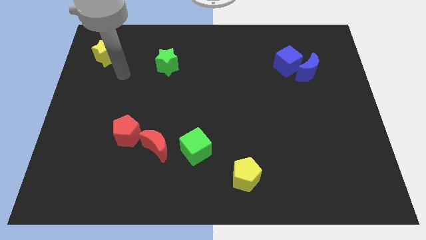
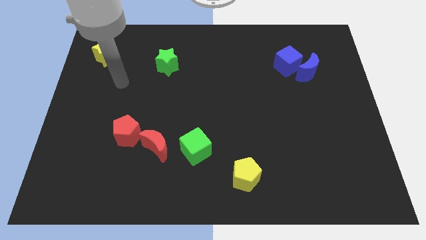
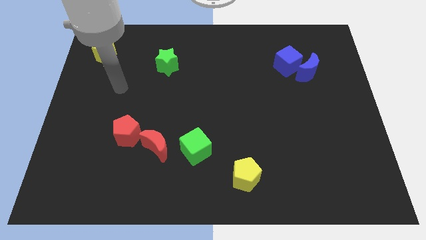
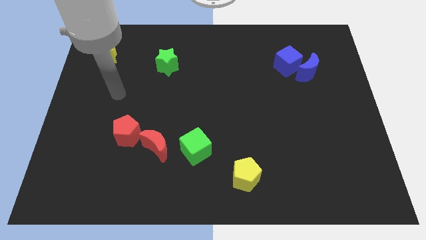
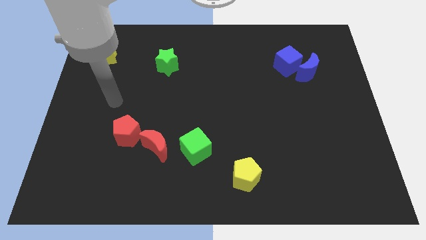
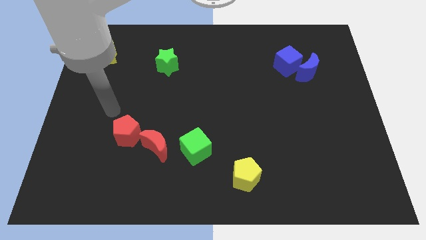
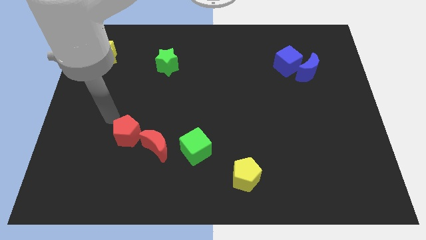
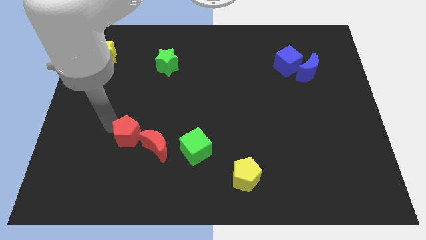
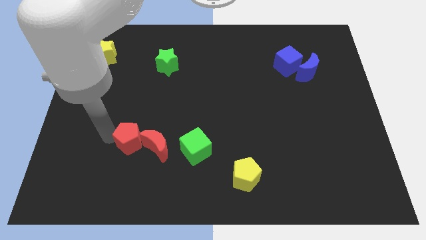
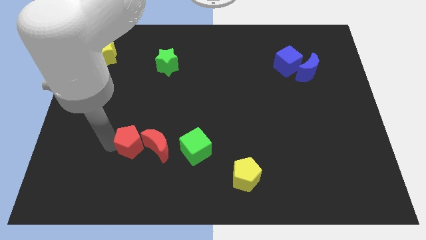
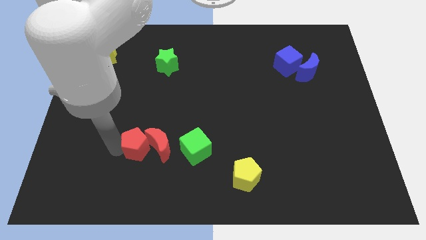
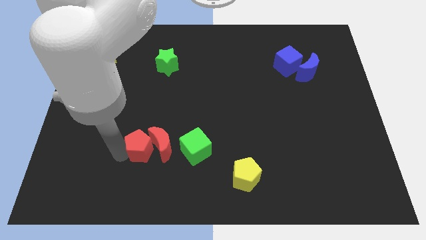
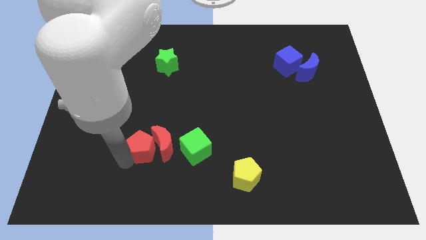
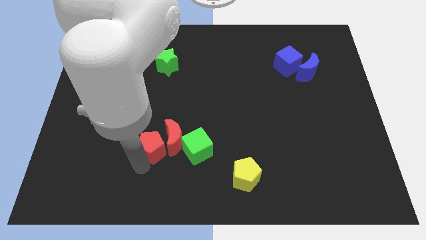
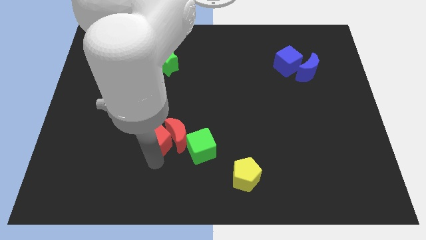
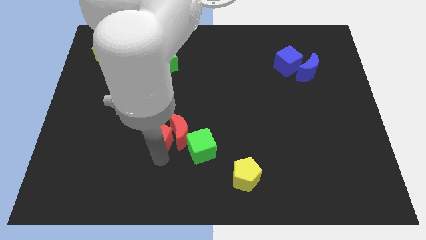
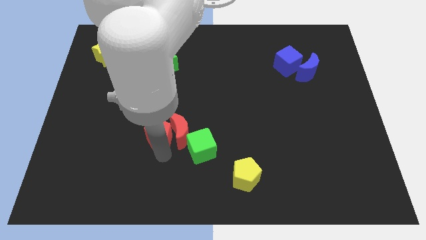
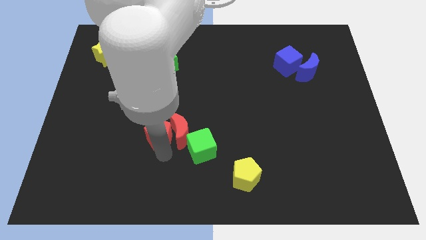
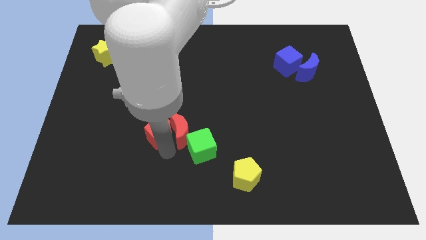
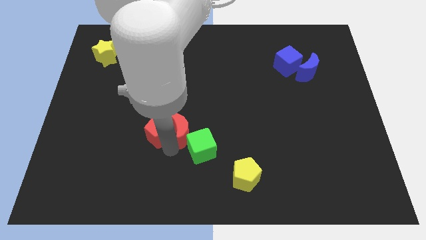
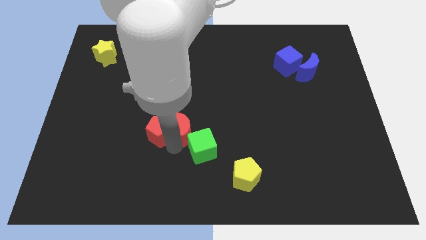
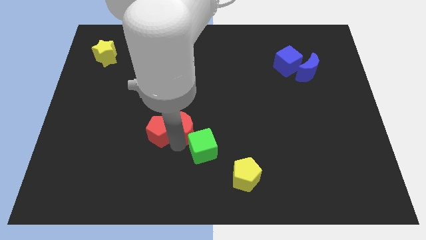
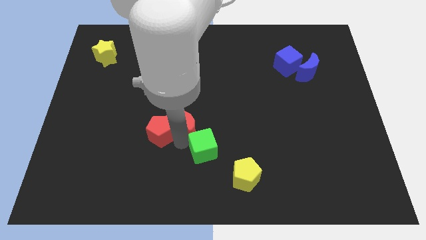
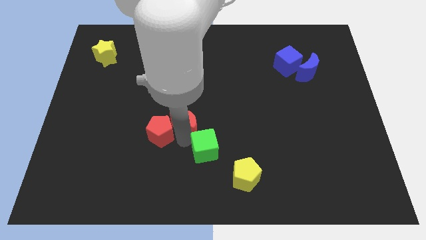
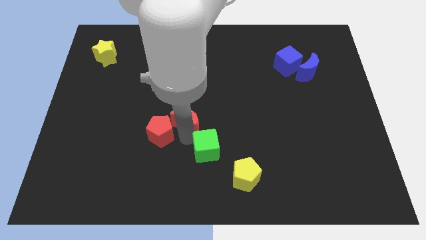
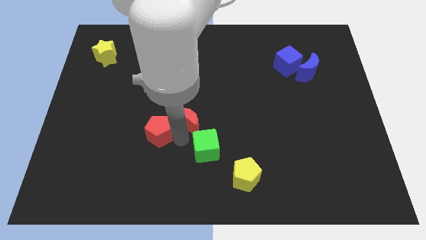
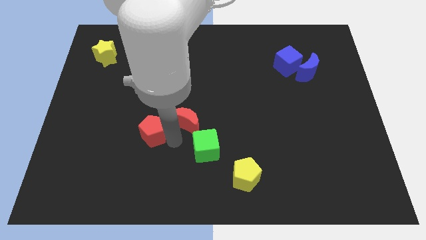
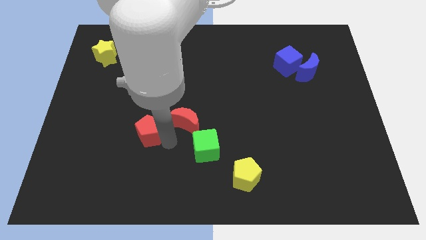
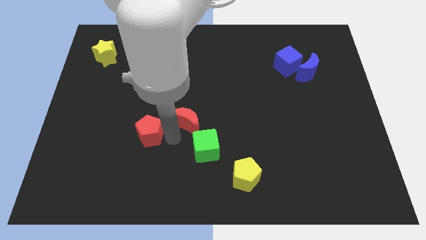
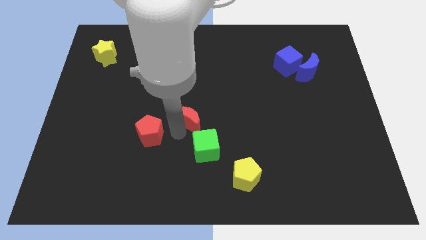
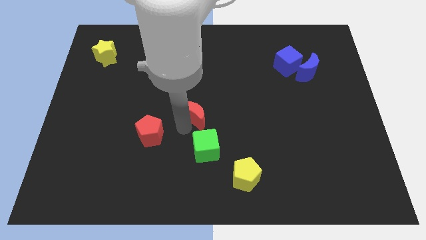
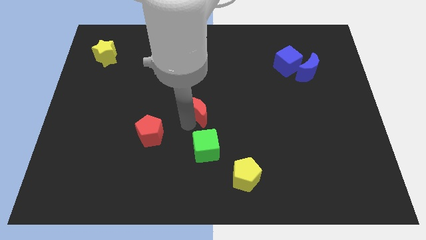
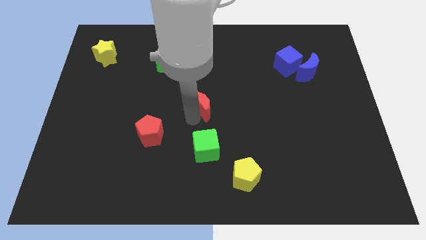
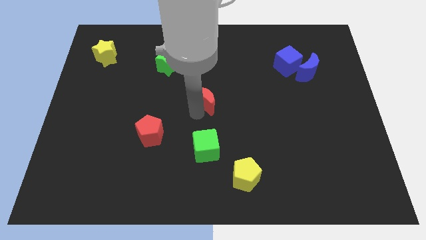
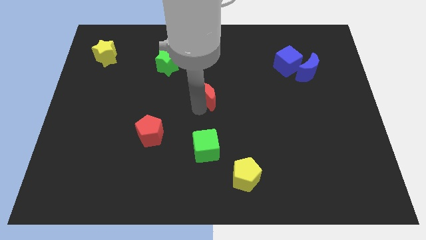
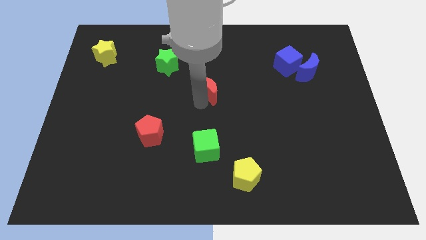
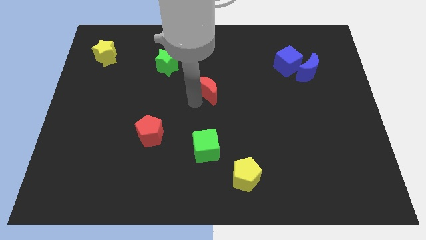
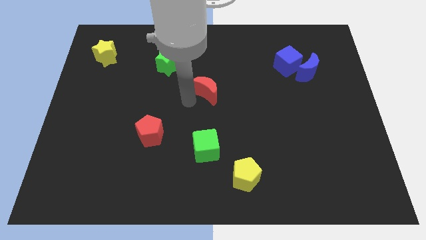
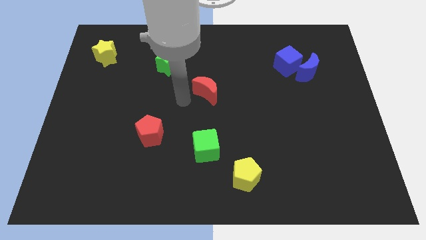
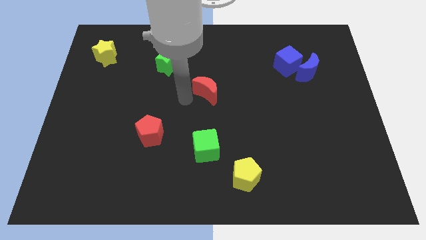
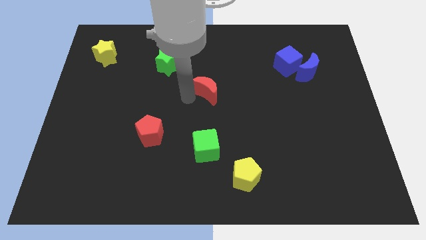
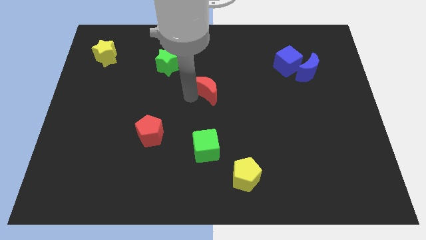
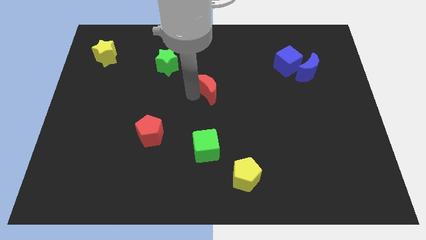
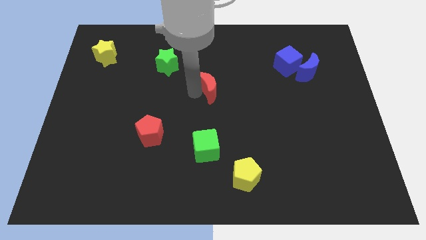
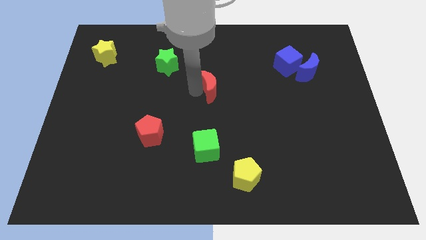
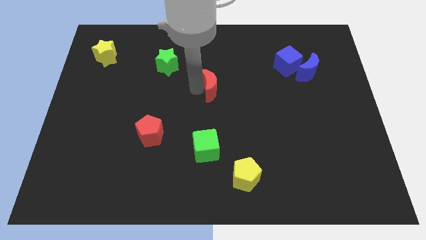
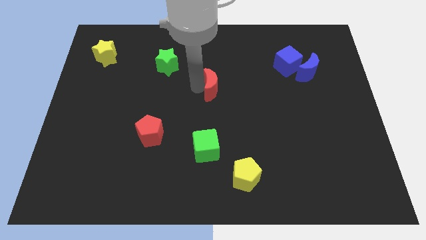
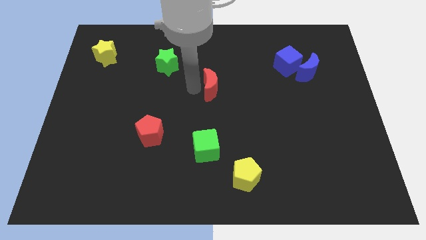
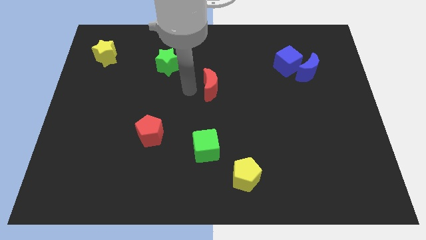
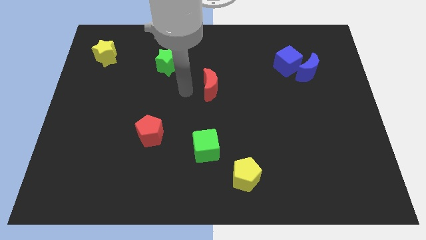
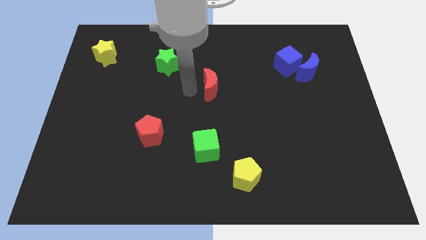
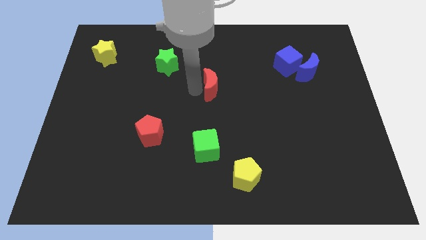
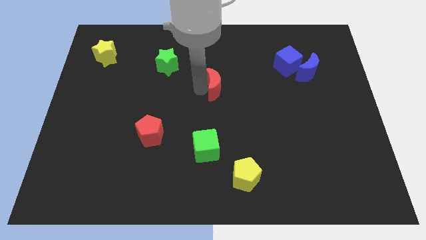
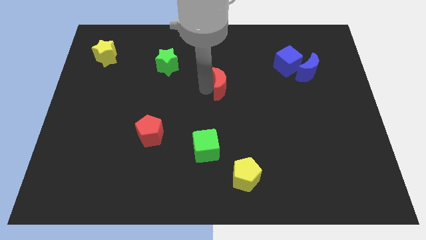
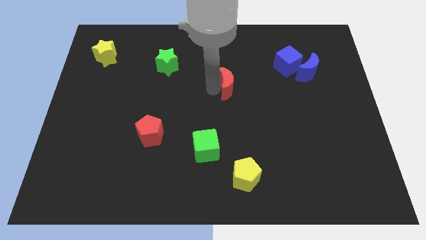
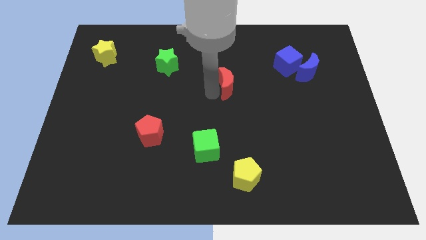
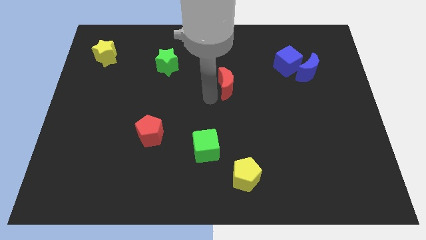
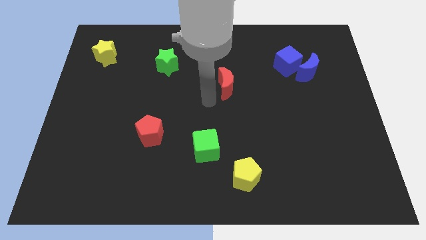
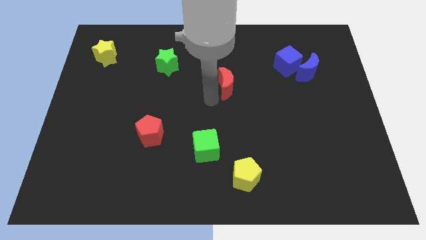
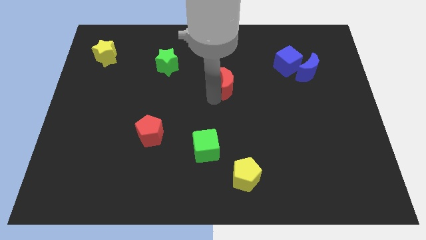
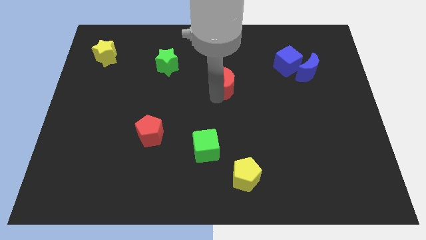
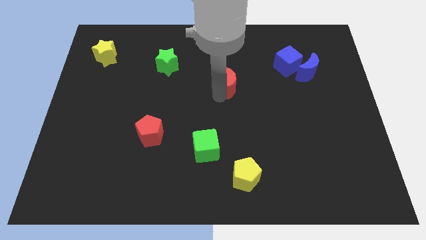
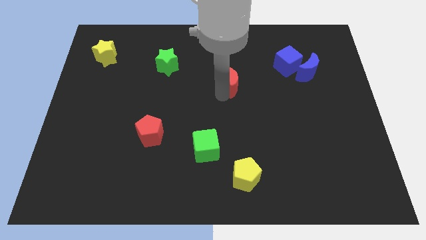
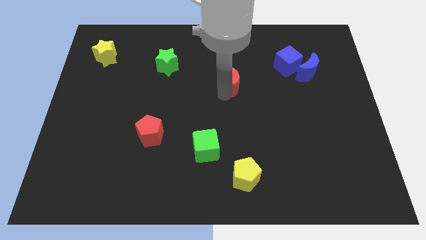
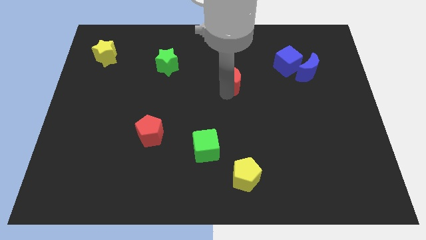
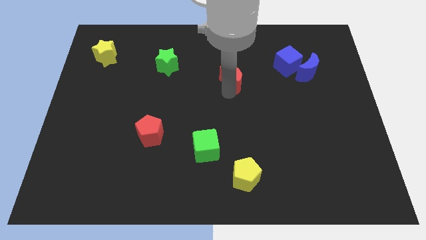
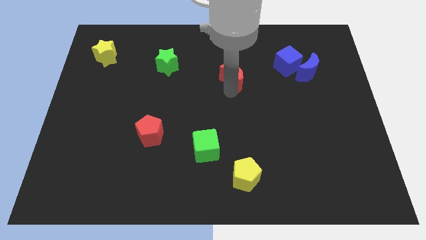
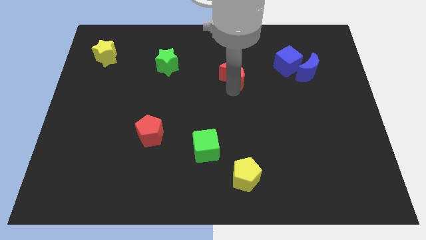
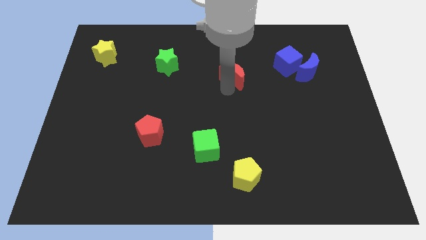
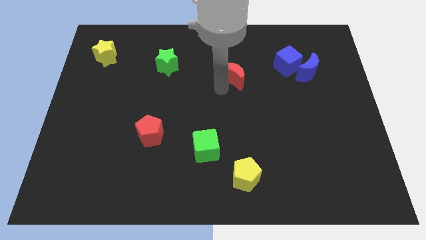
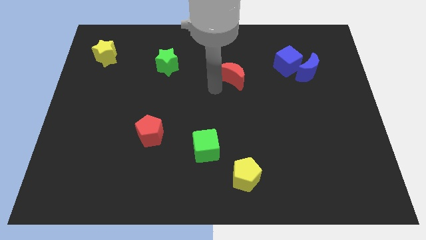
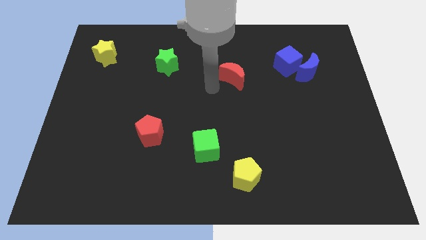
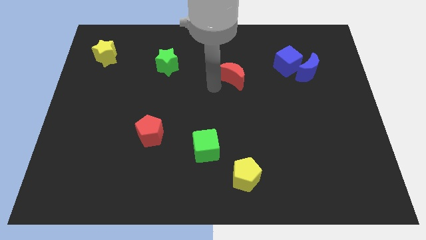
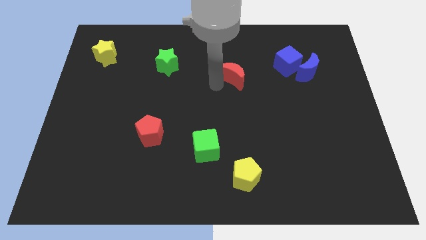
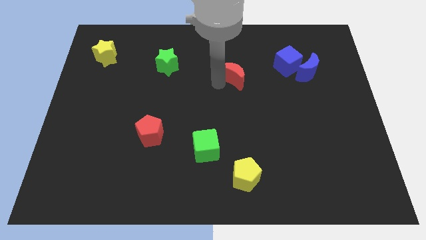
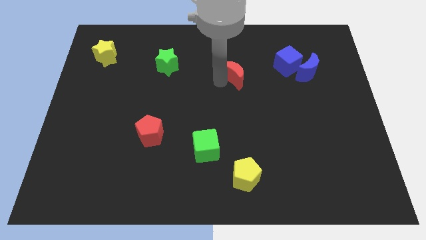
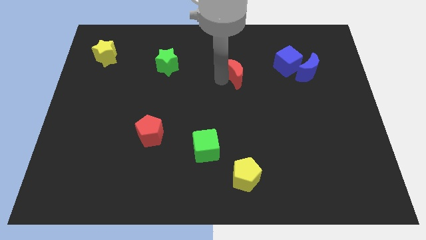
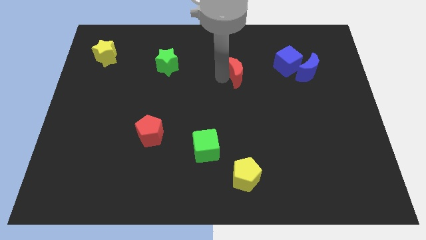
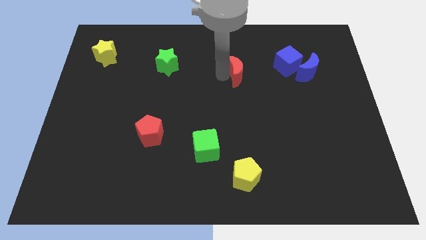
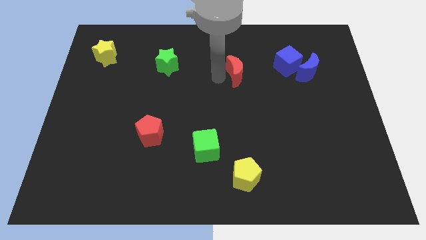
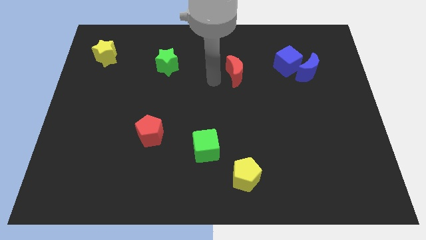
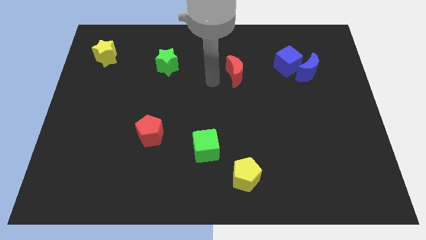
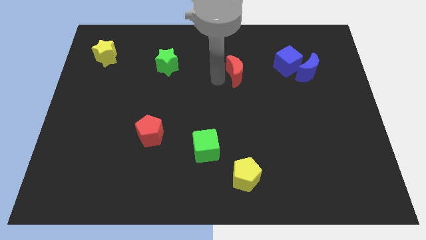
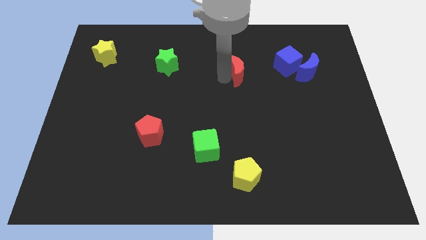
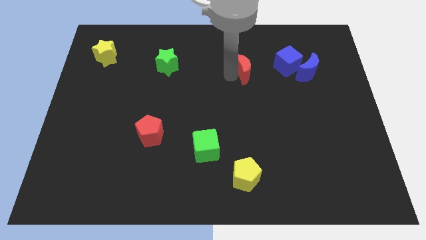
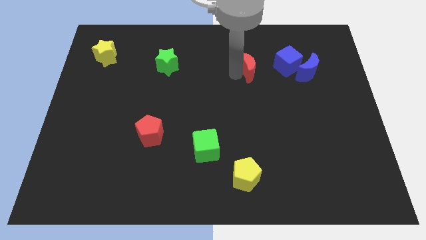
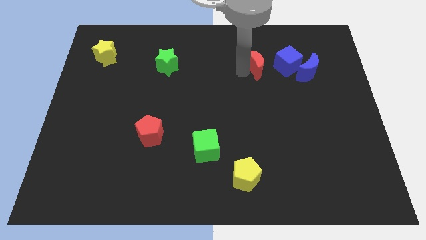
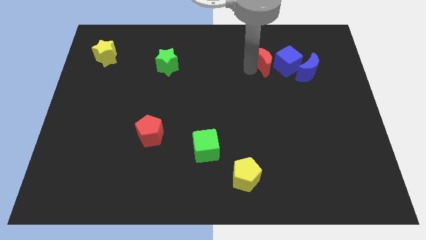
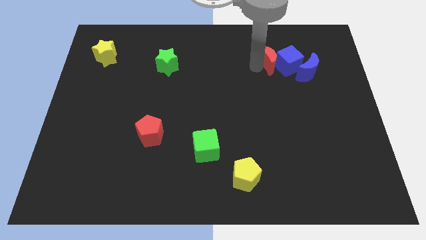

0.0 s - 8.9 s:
move the red moon diagonally up and to the left of the blue moon
